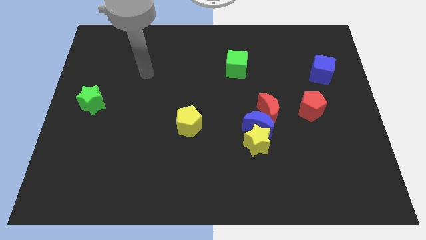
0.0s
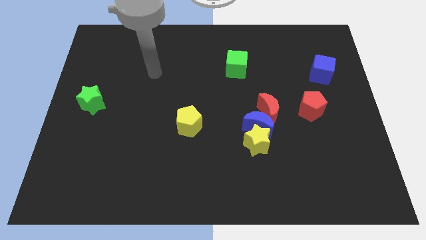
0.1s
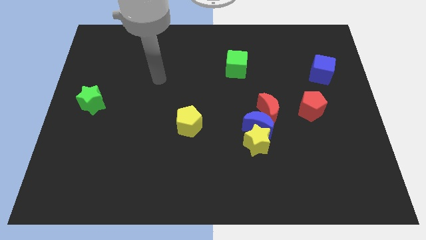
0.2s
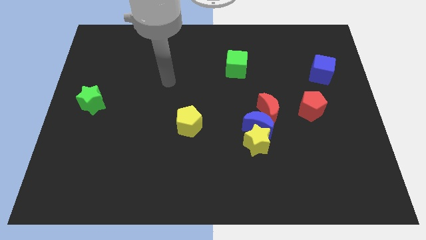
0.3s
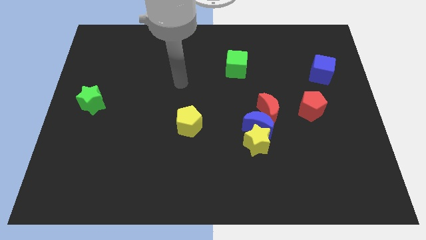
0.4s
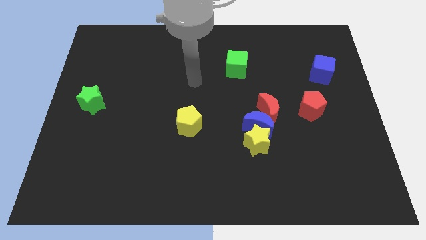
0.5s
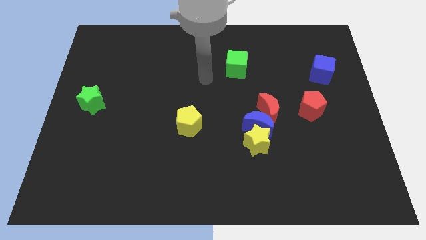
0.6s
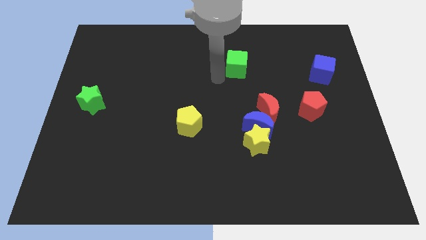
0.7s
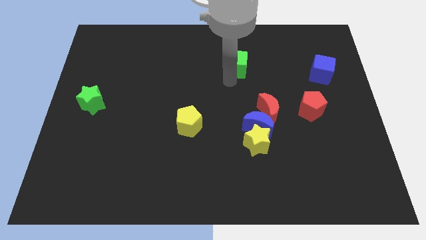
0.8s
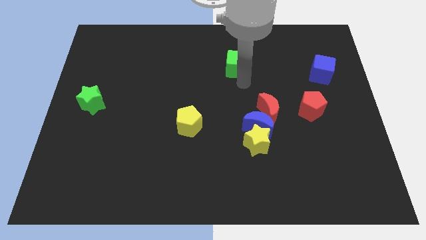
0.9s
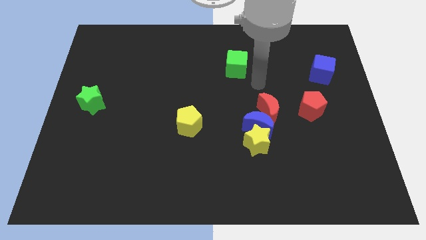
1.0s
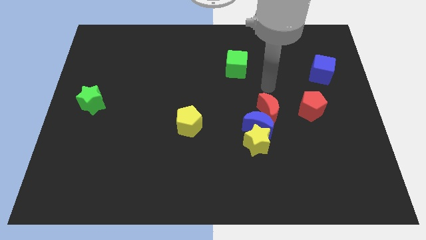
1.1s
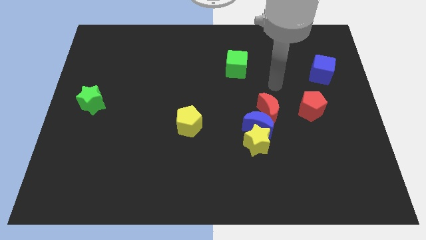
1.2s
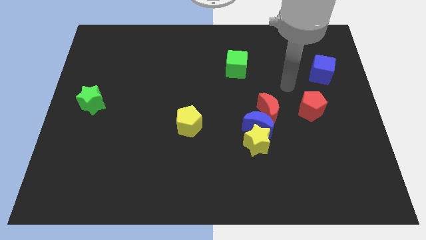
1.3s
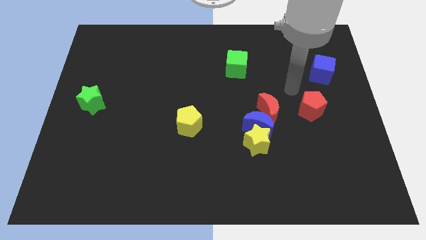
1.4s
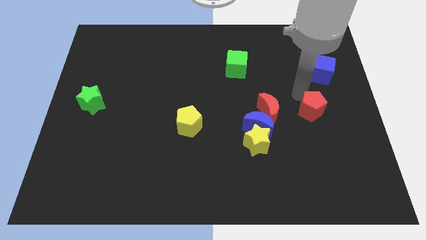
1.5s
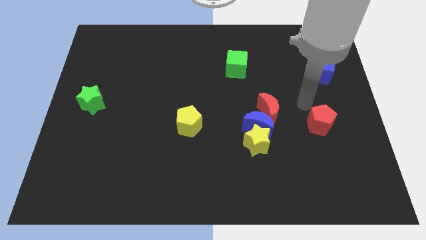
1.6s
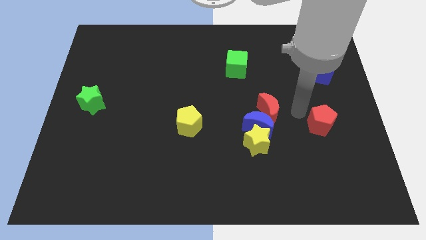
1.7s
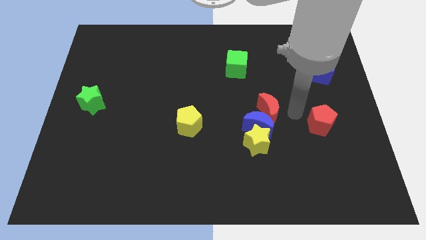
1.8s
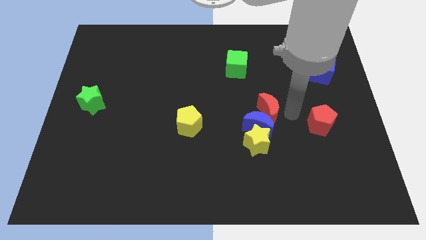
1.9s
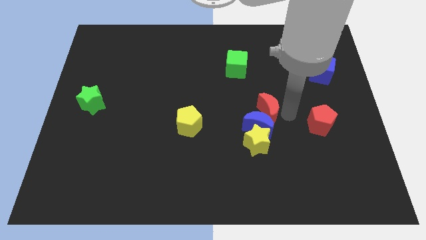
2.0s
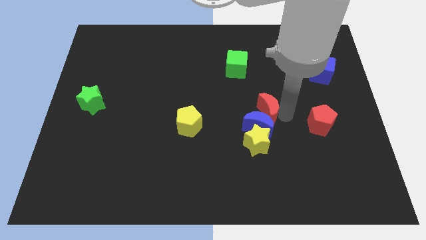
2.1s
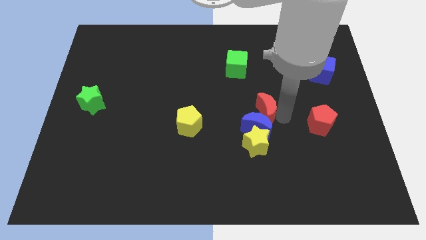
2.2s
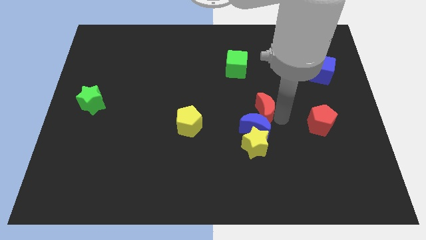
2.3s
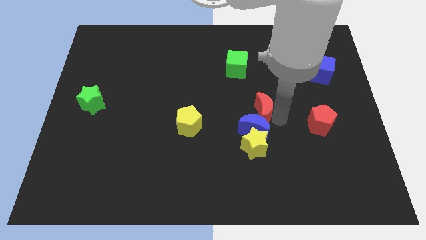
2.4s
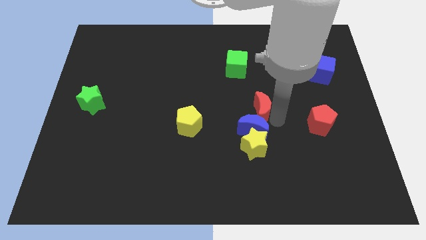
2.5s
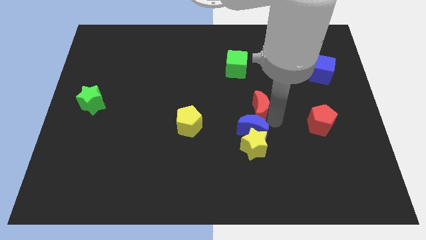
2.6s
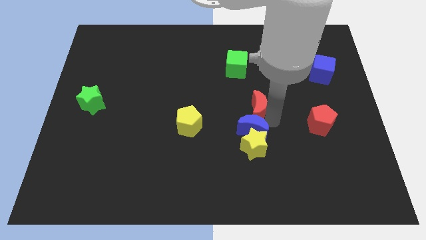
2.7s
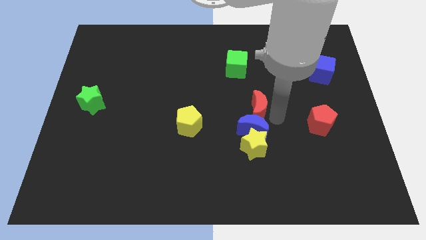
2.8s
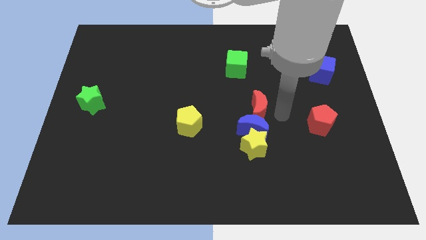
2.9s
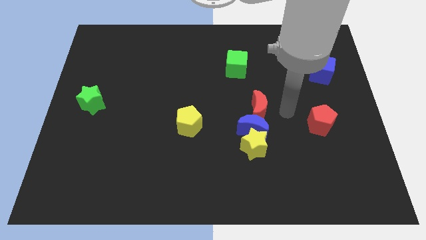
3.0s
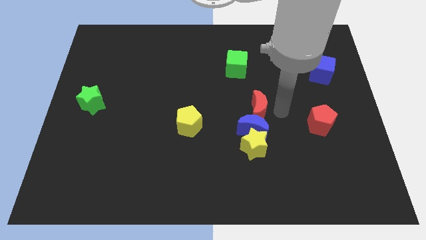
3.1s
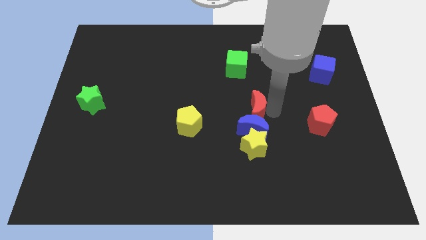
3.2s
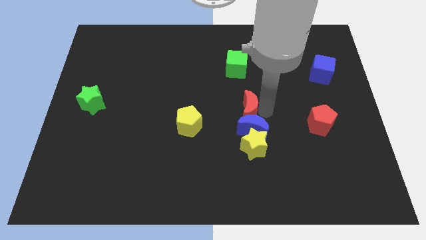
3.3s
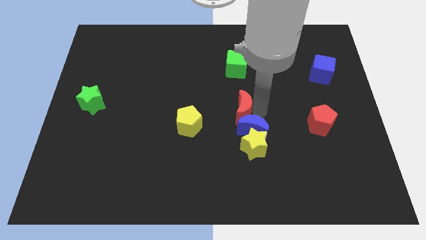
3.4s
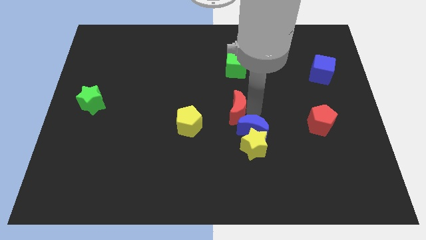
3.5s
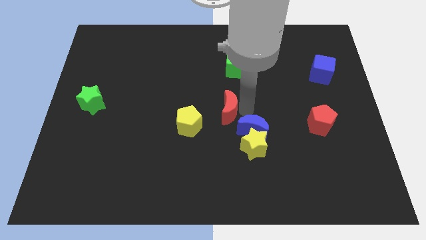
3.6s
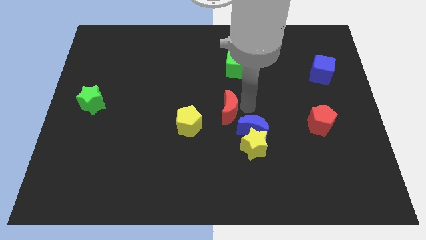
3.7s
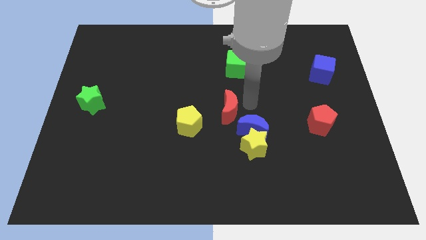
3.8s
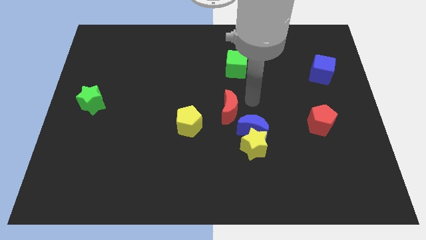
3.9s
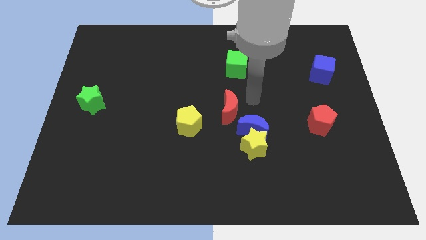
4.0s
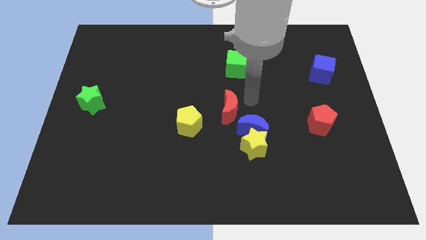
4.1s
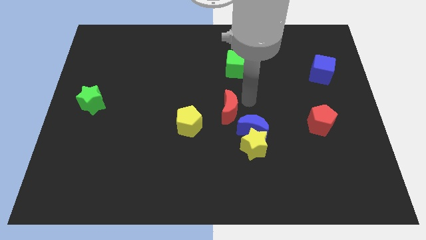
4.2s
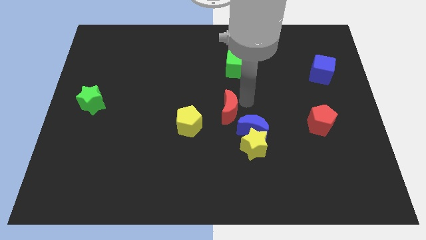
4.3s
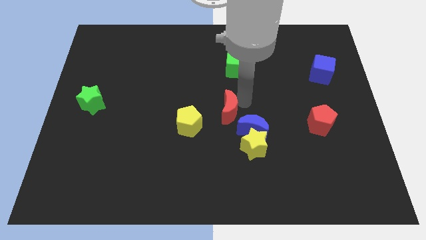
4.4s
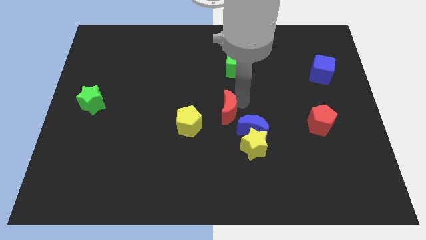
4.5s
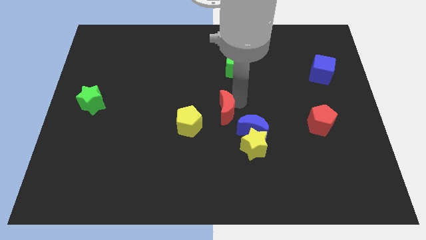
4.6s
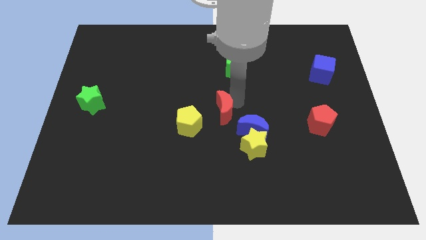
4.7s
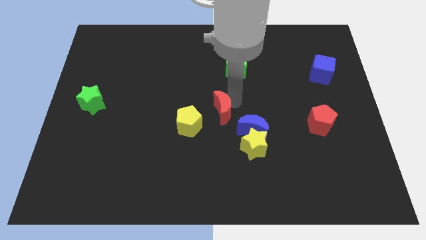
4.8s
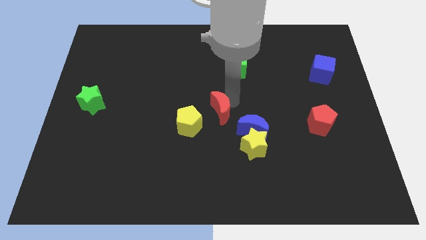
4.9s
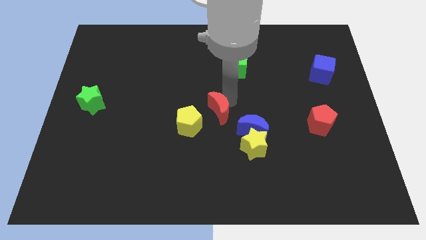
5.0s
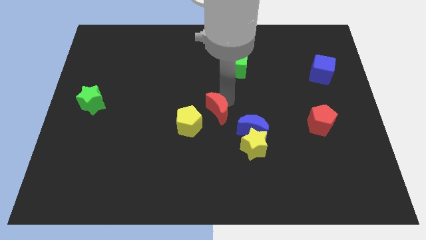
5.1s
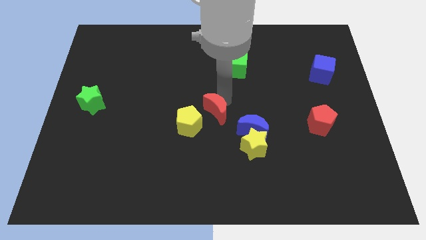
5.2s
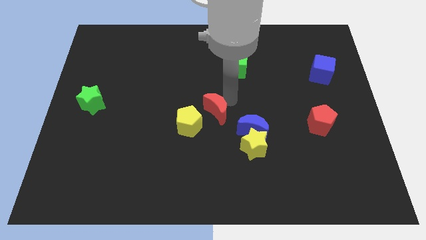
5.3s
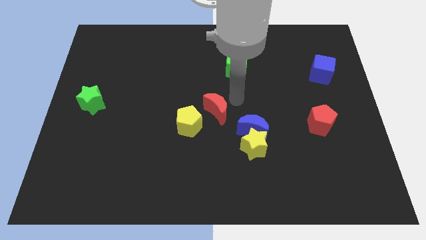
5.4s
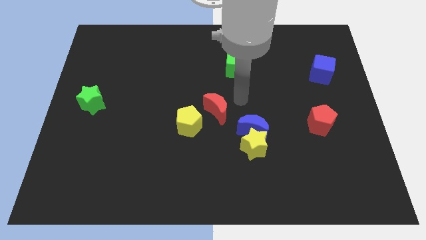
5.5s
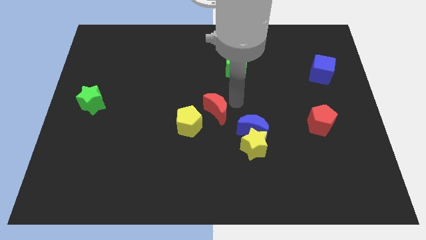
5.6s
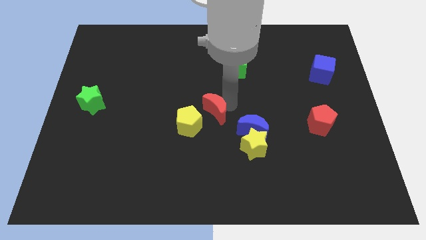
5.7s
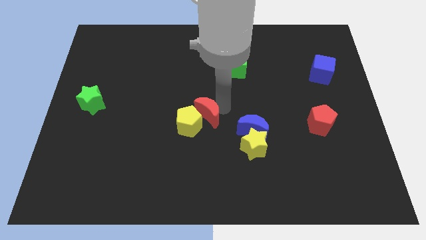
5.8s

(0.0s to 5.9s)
push the red moon close to the yellow pentagon

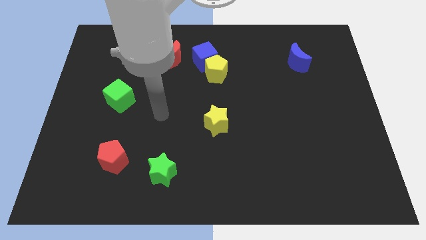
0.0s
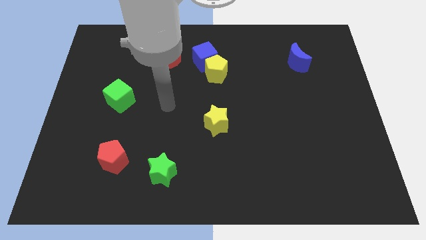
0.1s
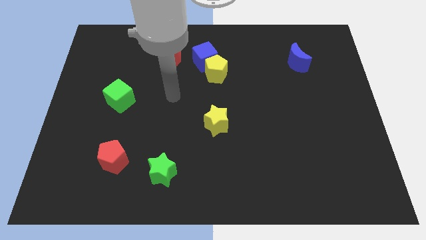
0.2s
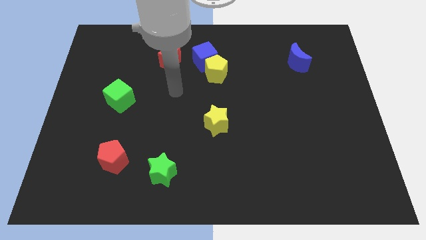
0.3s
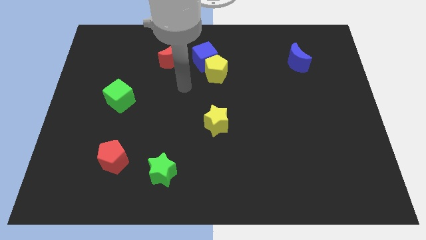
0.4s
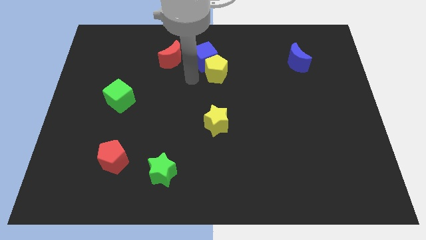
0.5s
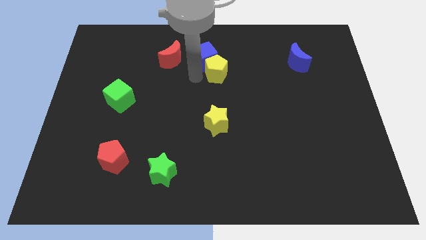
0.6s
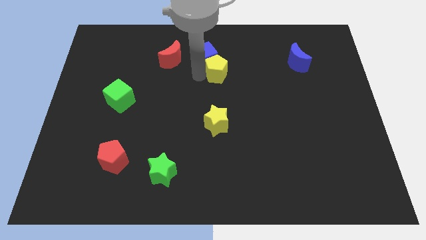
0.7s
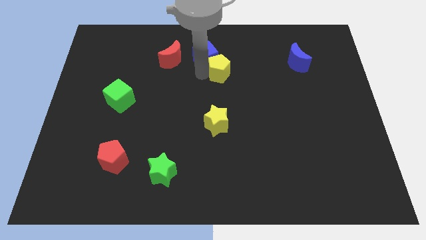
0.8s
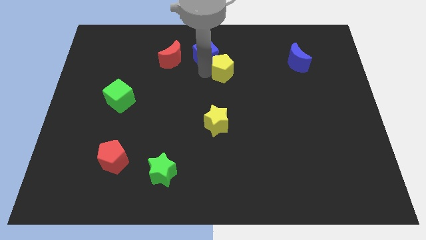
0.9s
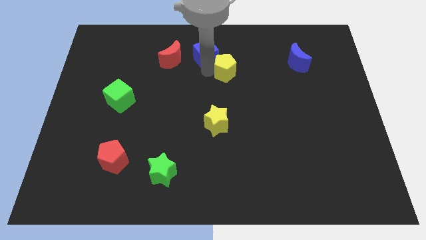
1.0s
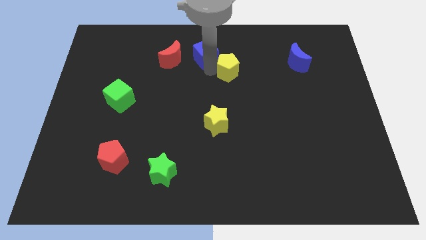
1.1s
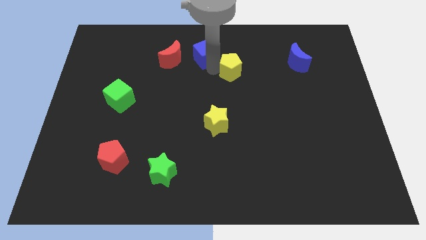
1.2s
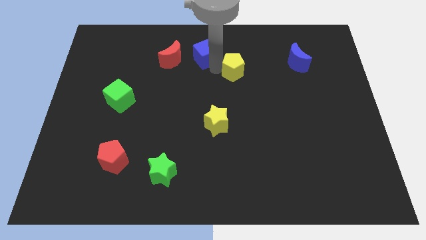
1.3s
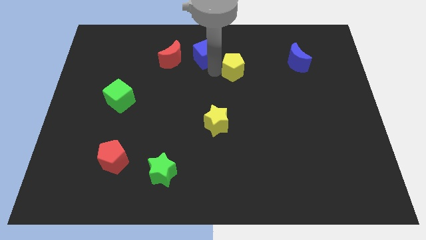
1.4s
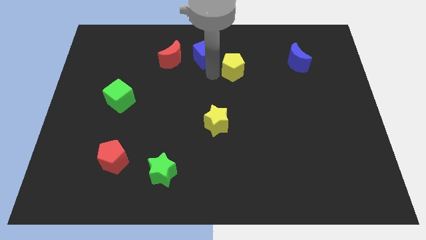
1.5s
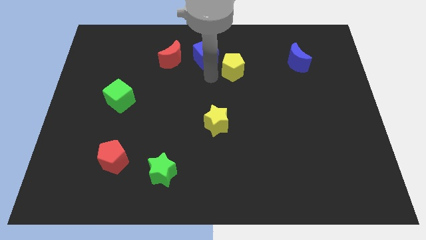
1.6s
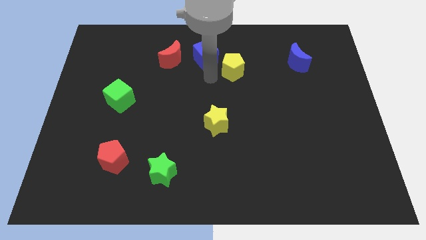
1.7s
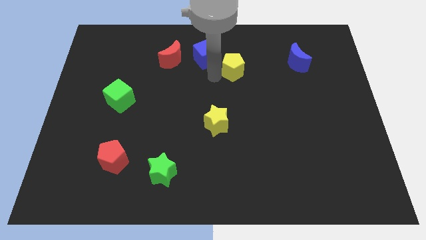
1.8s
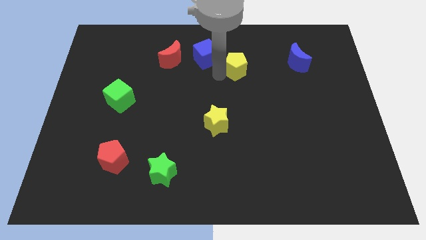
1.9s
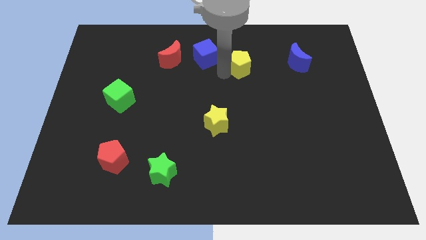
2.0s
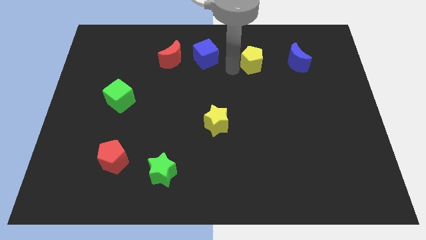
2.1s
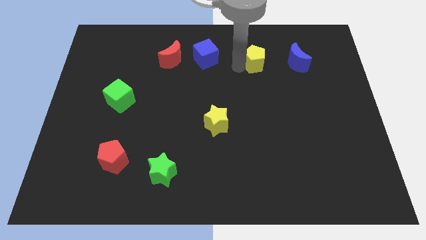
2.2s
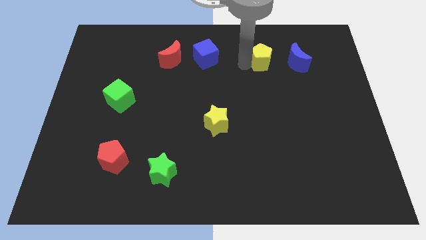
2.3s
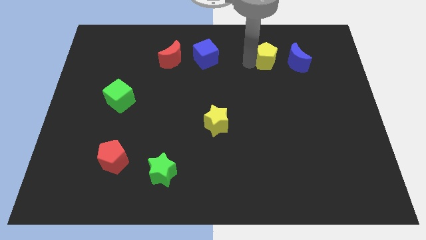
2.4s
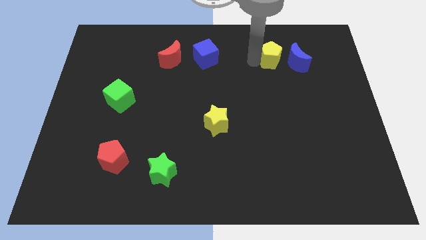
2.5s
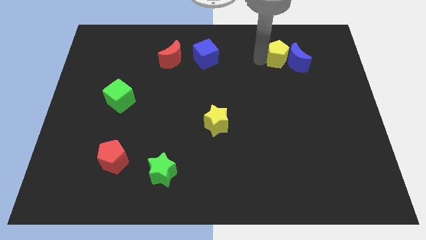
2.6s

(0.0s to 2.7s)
move the yellow pentagon next to the blue moon
